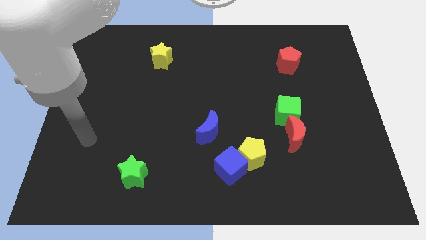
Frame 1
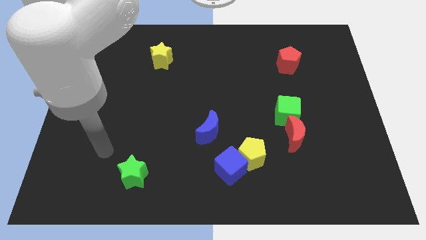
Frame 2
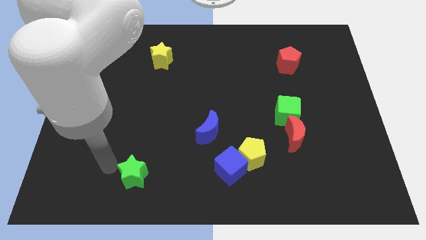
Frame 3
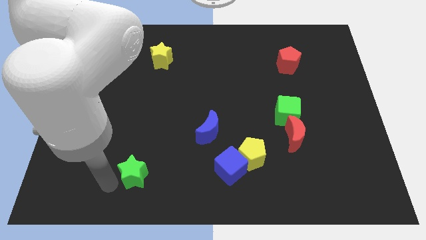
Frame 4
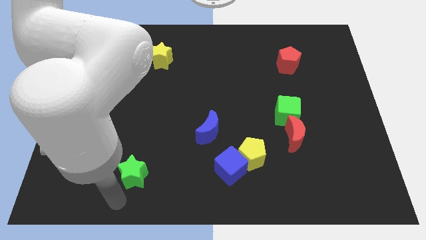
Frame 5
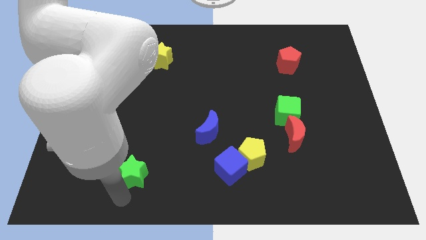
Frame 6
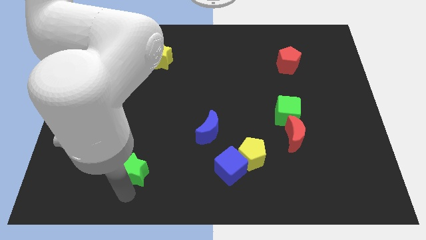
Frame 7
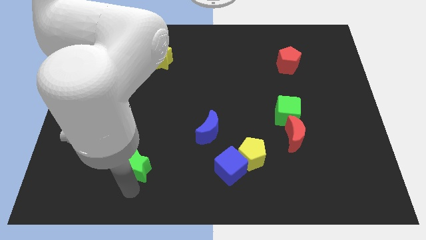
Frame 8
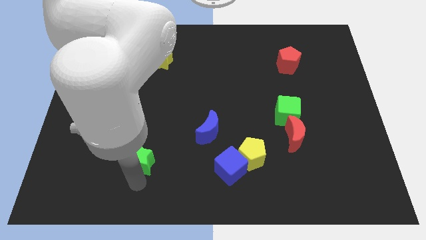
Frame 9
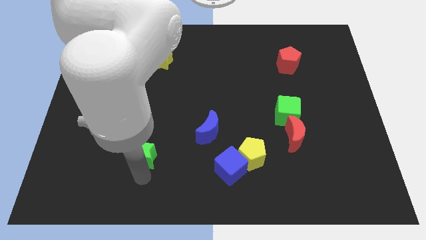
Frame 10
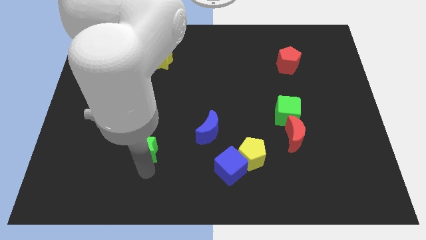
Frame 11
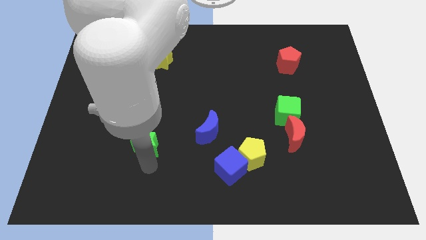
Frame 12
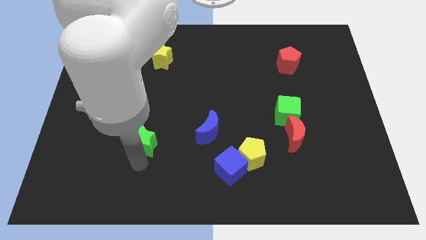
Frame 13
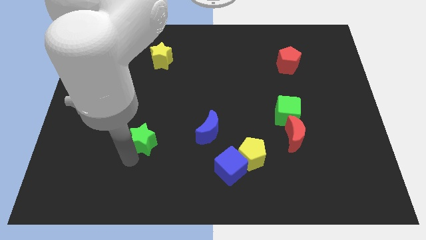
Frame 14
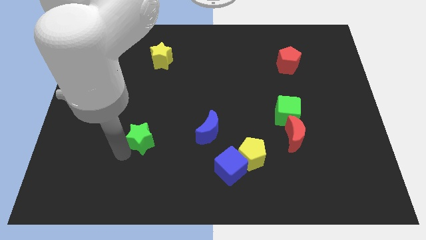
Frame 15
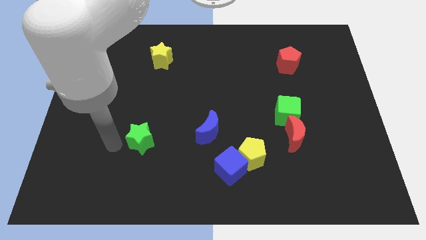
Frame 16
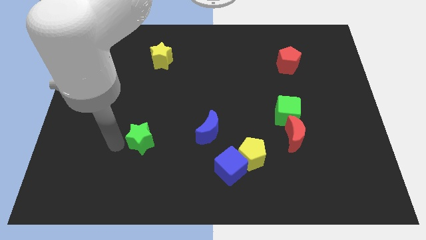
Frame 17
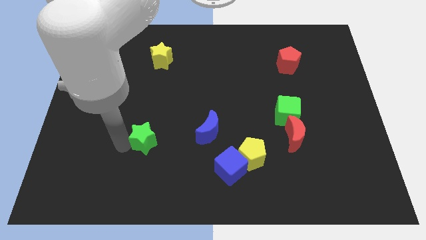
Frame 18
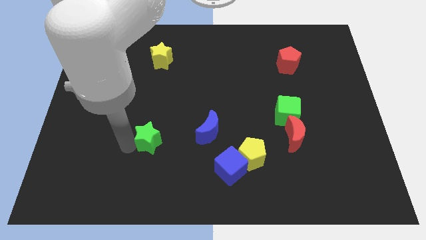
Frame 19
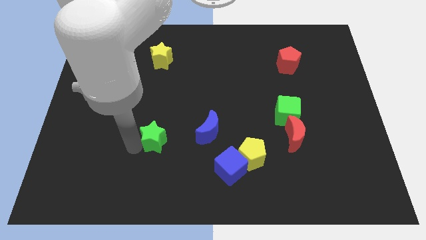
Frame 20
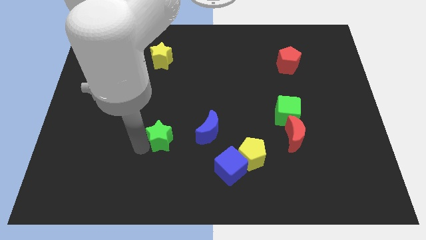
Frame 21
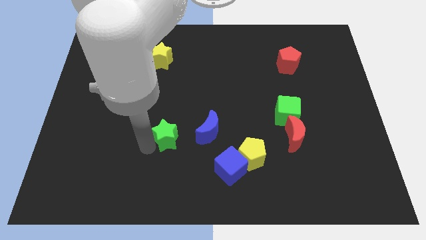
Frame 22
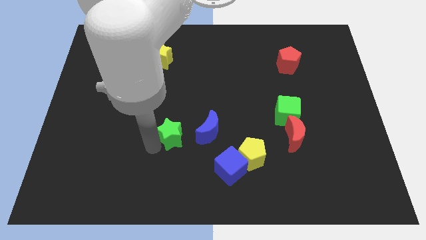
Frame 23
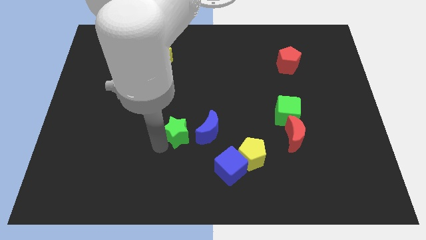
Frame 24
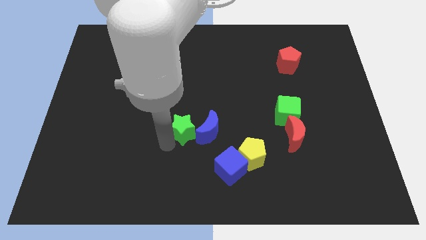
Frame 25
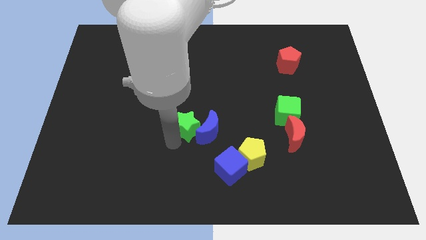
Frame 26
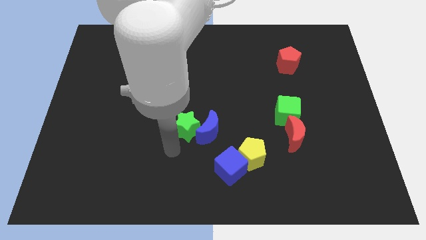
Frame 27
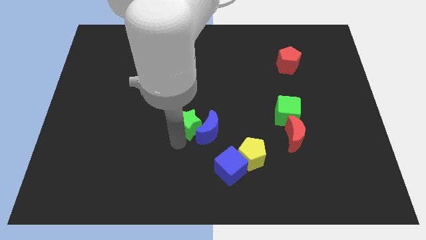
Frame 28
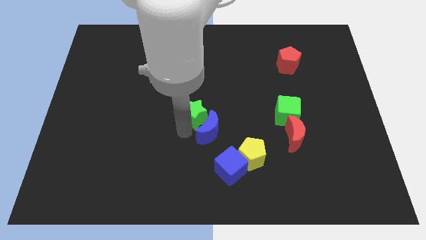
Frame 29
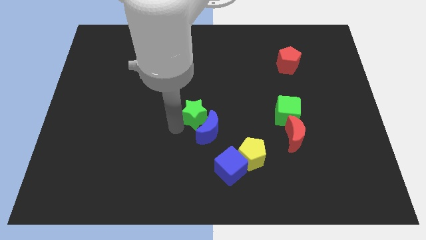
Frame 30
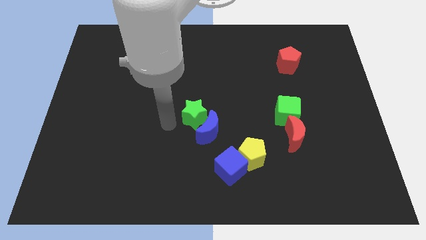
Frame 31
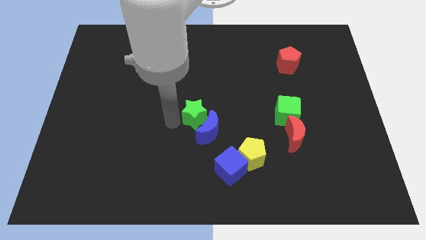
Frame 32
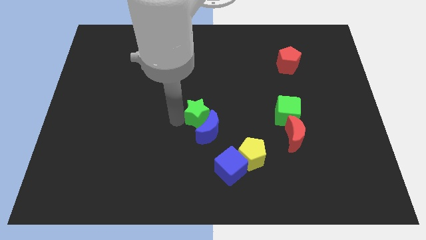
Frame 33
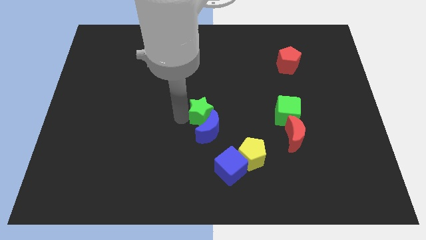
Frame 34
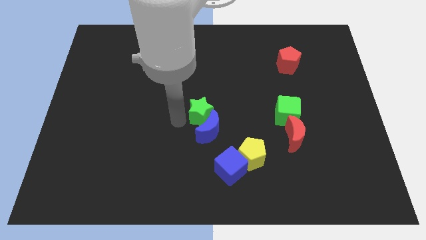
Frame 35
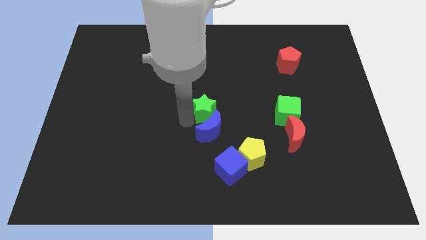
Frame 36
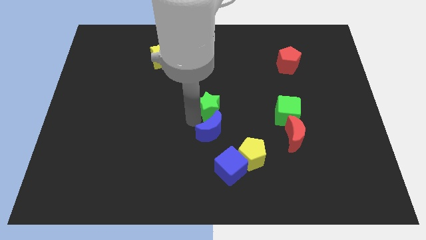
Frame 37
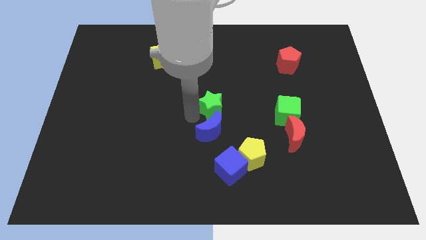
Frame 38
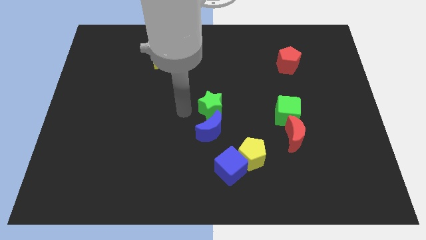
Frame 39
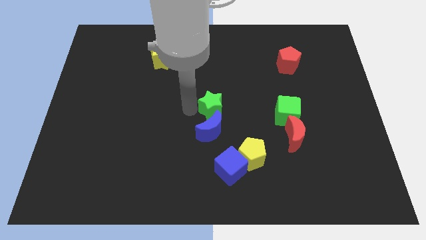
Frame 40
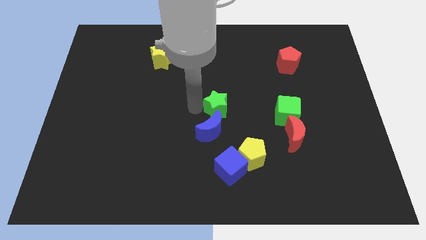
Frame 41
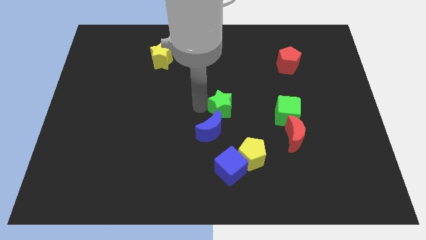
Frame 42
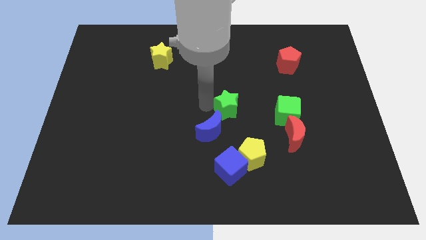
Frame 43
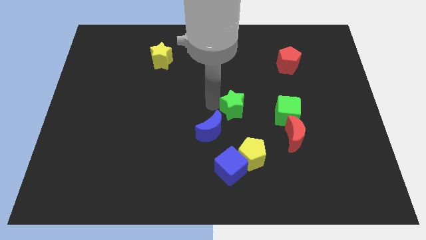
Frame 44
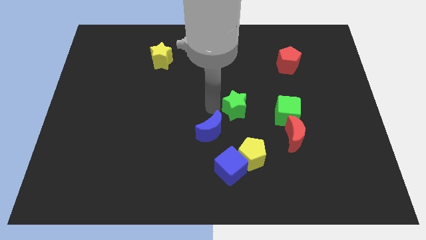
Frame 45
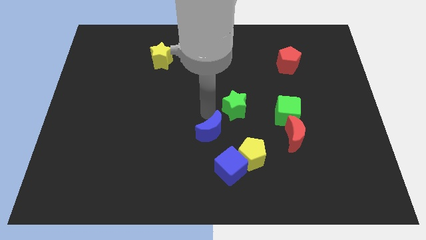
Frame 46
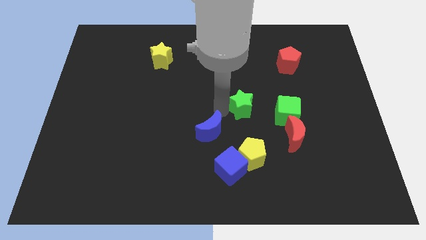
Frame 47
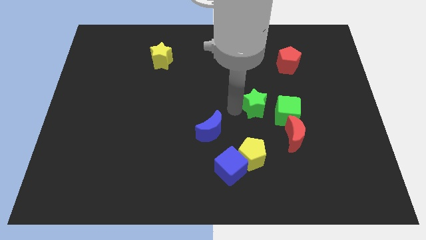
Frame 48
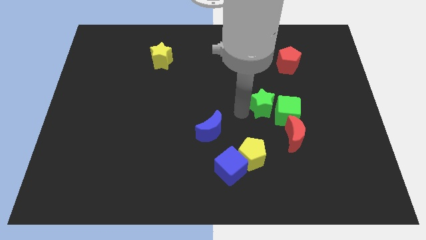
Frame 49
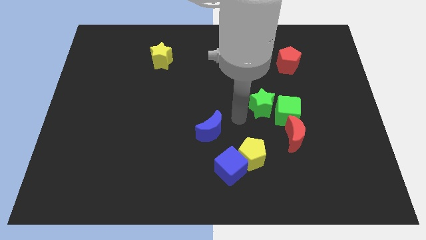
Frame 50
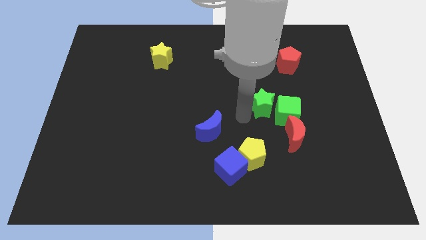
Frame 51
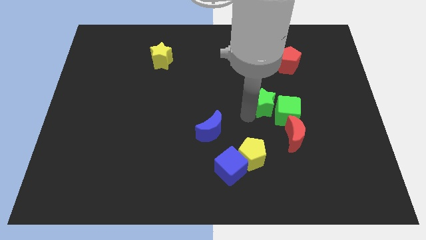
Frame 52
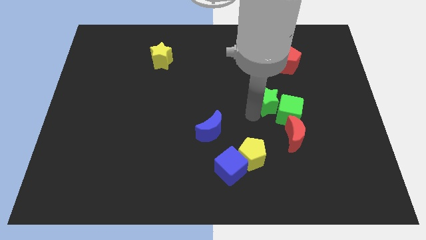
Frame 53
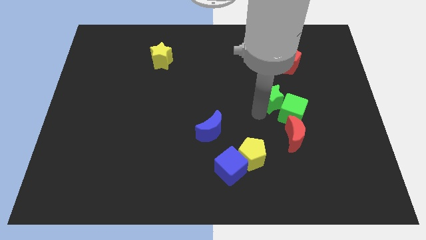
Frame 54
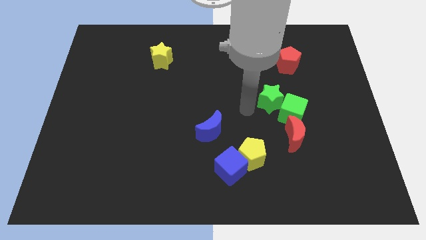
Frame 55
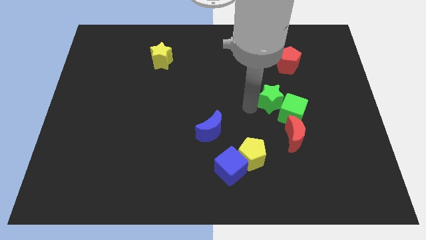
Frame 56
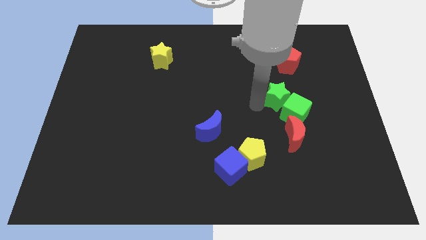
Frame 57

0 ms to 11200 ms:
put the green star to the bottom side of the red pentagon

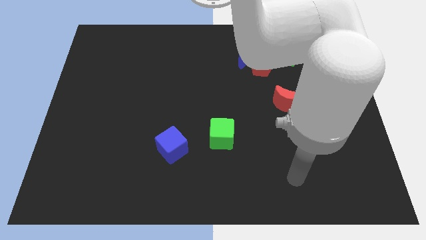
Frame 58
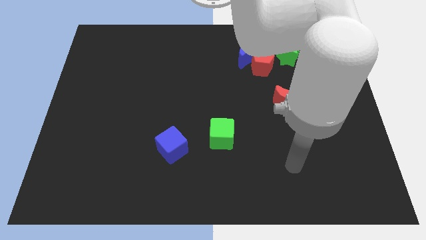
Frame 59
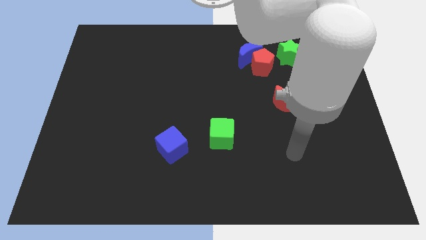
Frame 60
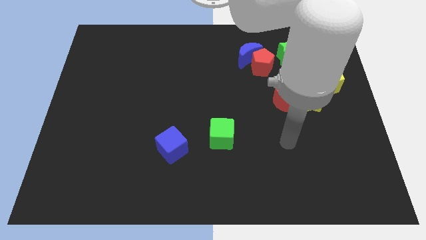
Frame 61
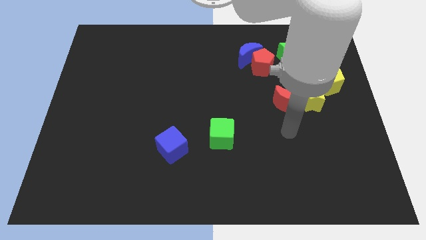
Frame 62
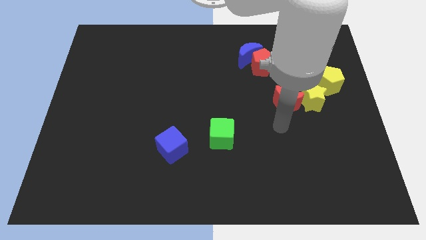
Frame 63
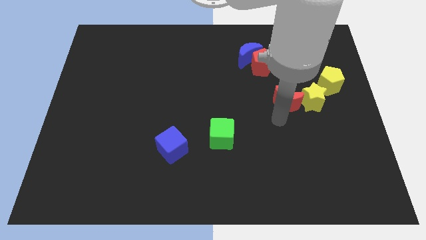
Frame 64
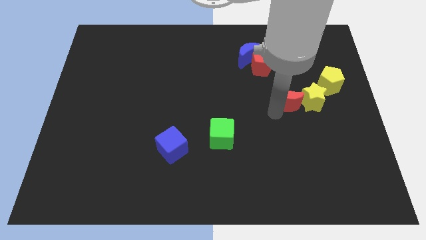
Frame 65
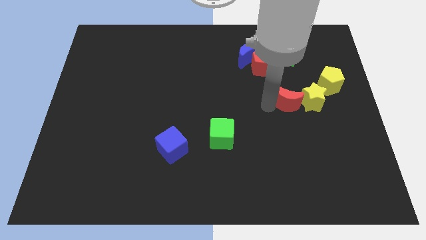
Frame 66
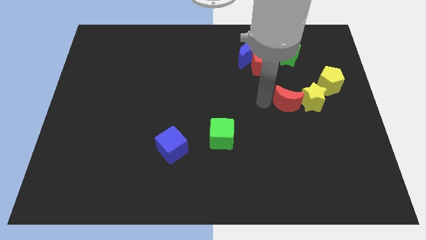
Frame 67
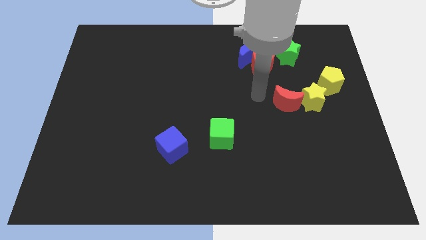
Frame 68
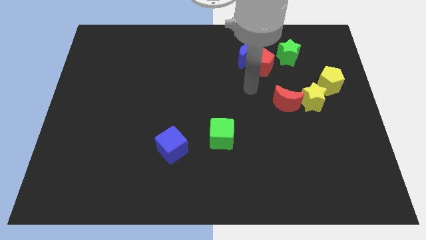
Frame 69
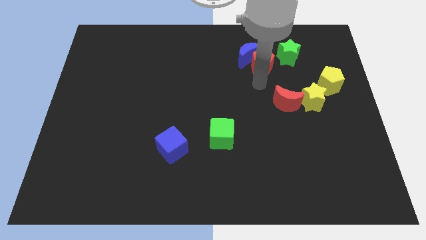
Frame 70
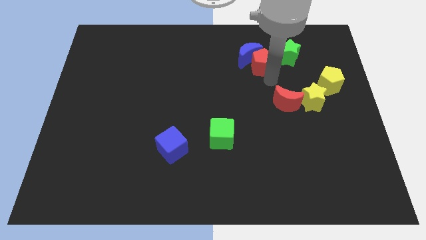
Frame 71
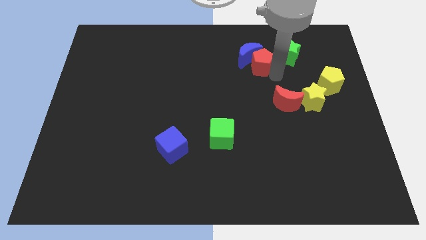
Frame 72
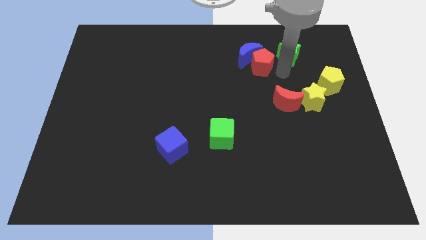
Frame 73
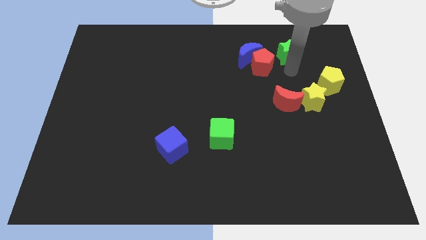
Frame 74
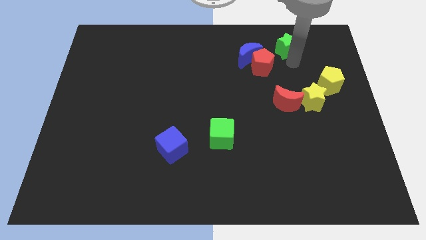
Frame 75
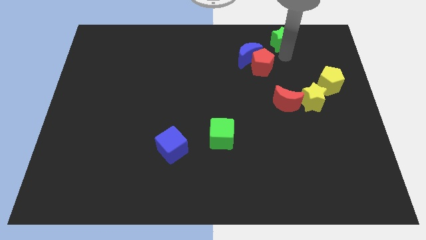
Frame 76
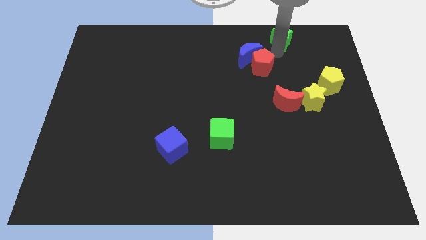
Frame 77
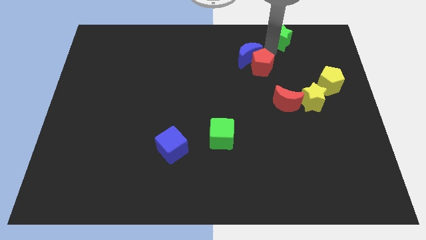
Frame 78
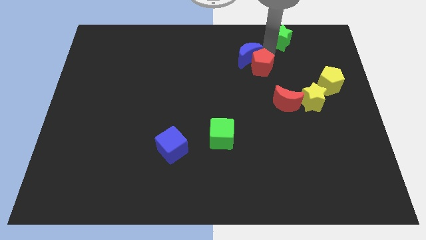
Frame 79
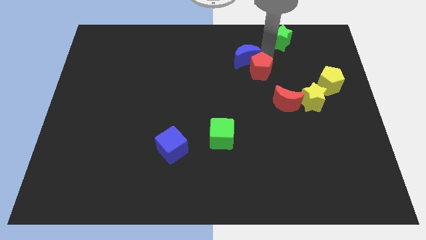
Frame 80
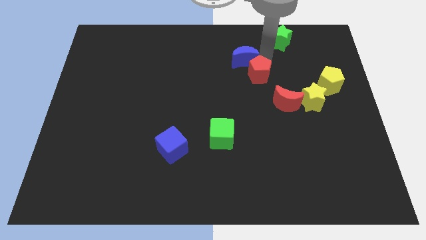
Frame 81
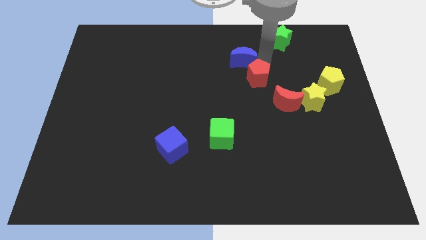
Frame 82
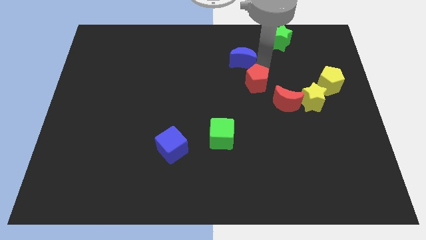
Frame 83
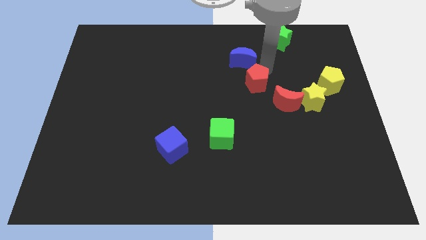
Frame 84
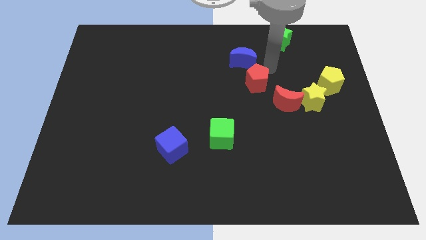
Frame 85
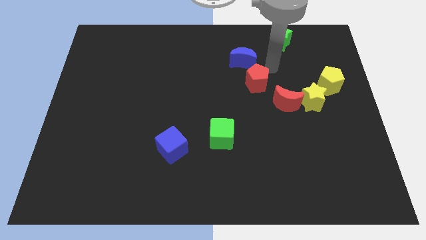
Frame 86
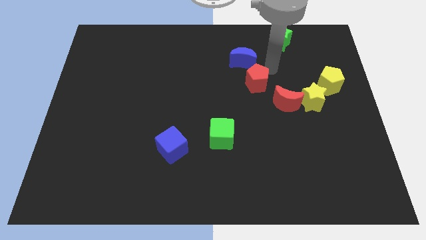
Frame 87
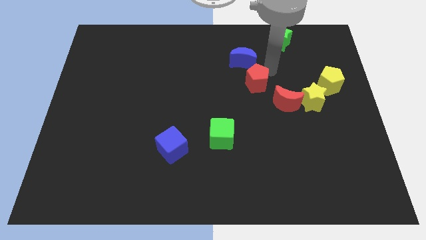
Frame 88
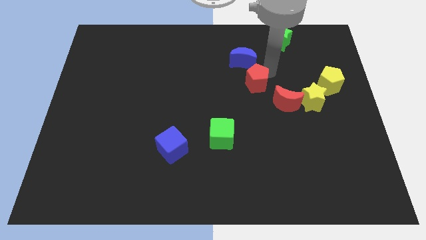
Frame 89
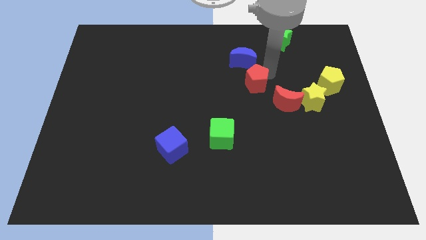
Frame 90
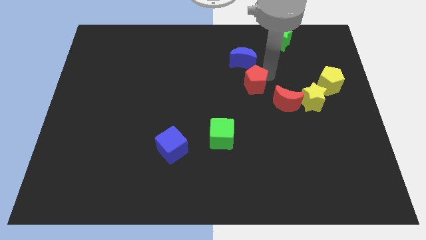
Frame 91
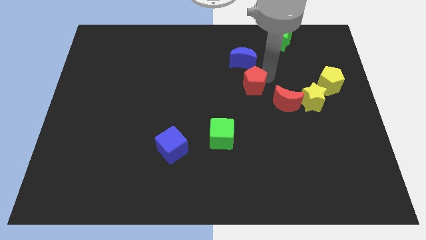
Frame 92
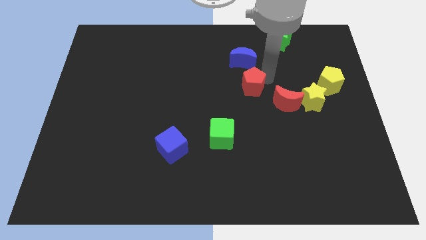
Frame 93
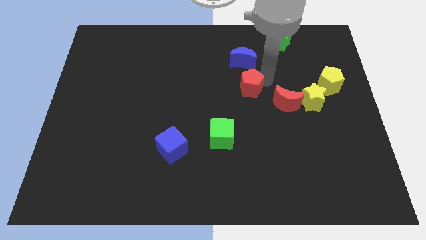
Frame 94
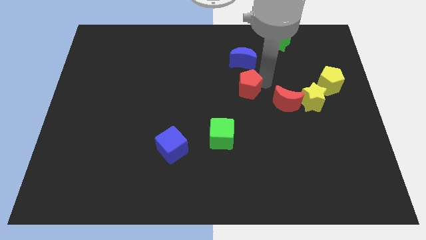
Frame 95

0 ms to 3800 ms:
slide the red pentagon left of the red moon
